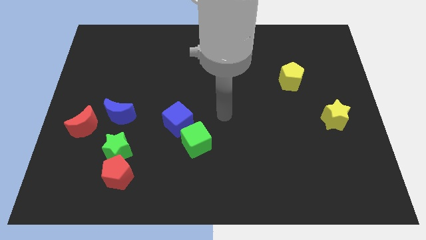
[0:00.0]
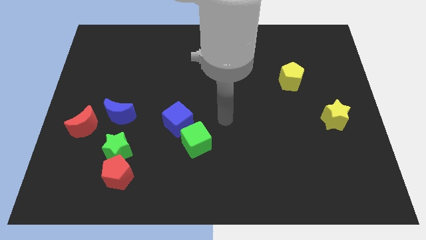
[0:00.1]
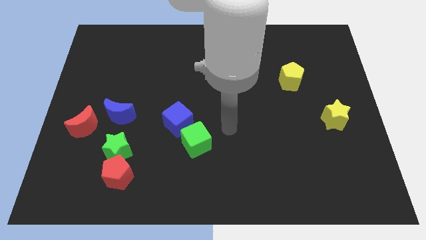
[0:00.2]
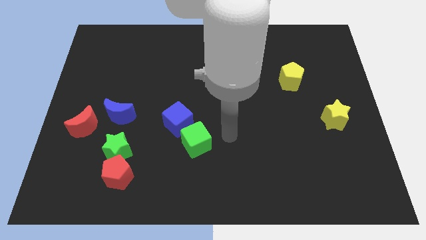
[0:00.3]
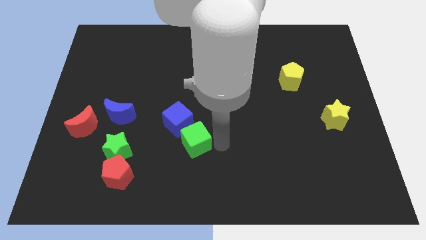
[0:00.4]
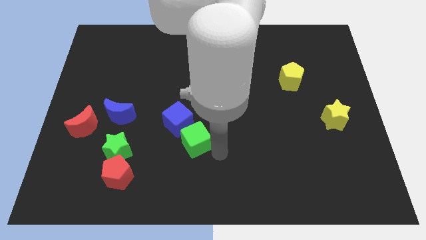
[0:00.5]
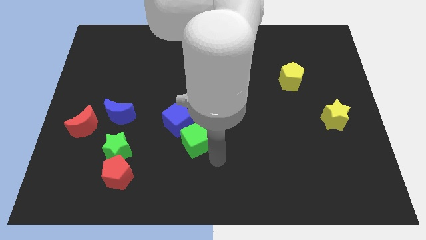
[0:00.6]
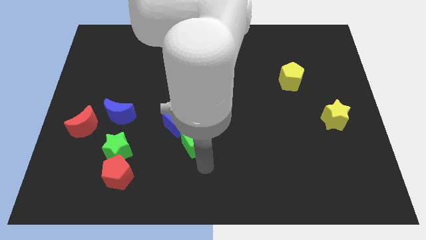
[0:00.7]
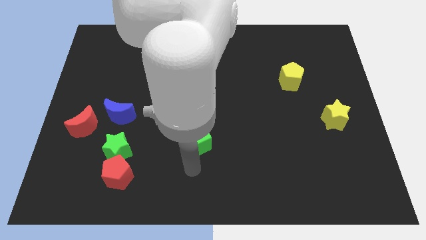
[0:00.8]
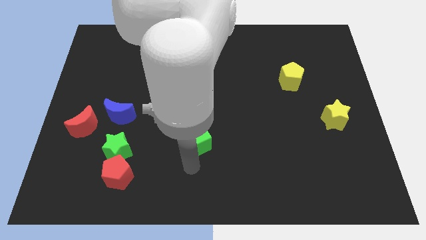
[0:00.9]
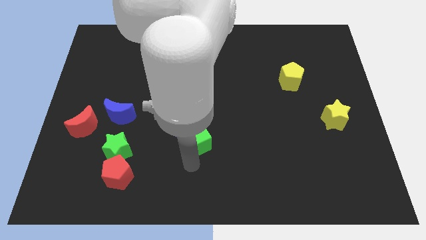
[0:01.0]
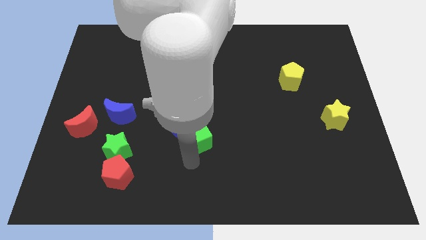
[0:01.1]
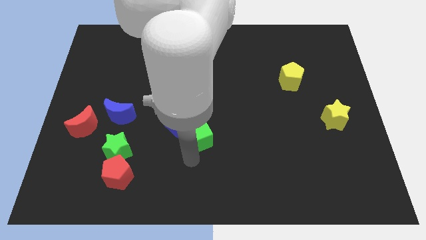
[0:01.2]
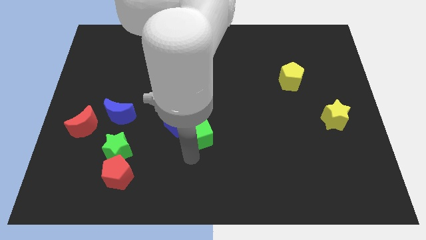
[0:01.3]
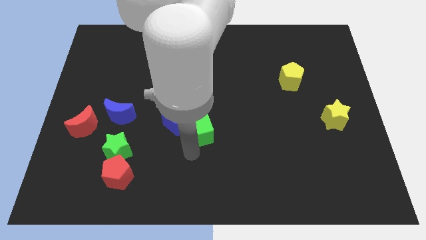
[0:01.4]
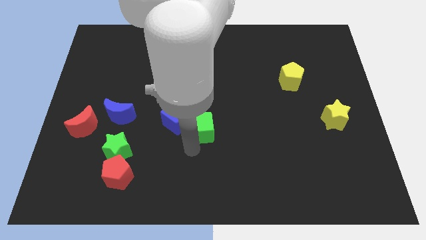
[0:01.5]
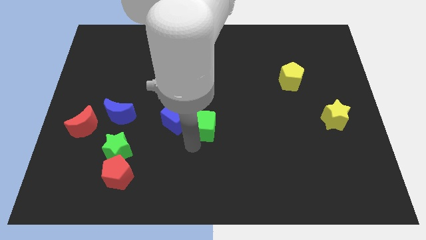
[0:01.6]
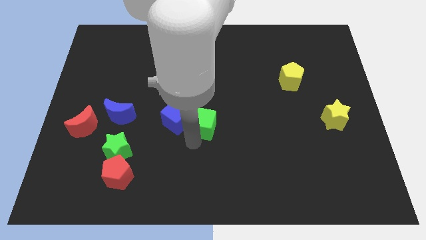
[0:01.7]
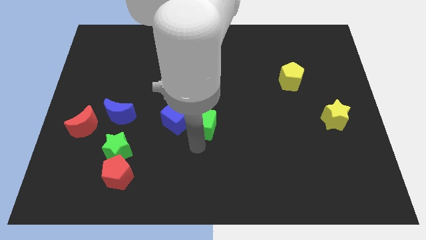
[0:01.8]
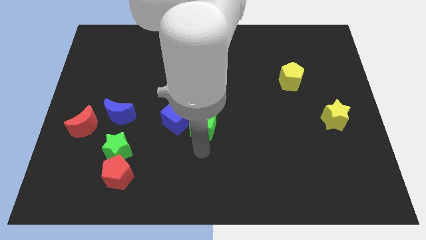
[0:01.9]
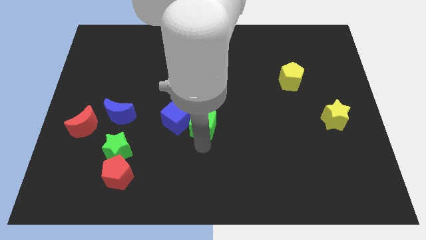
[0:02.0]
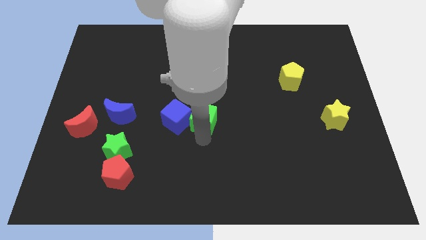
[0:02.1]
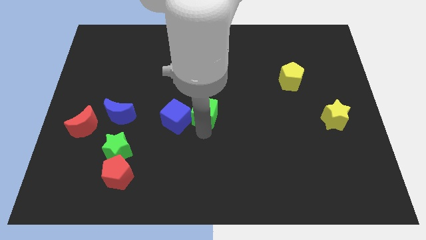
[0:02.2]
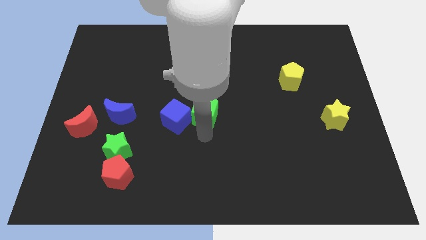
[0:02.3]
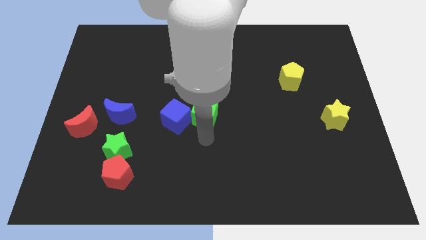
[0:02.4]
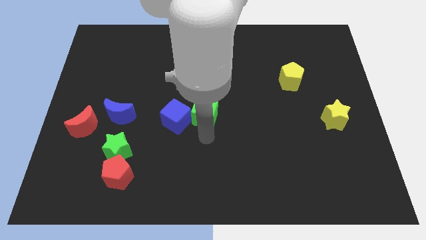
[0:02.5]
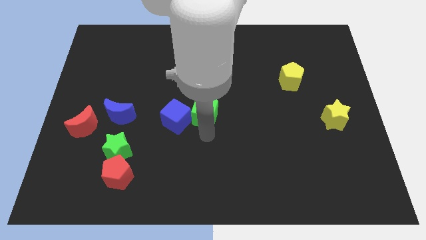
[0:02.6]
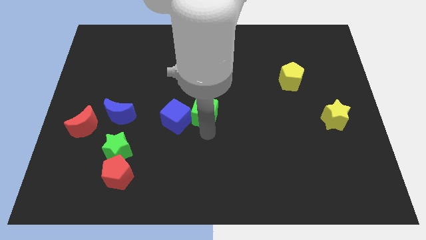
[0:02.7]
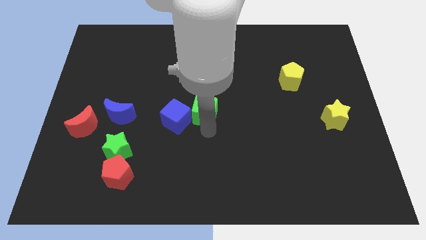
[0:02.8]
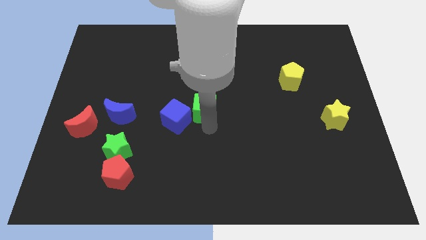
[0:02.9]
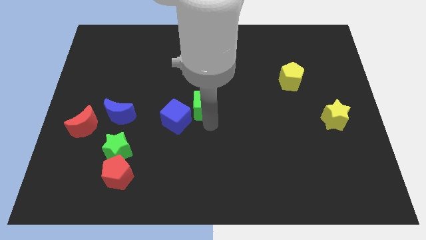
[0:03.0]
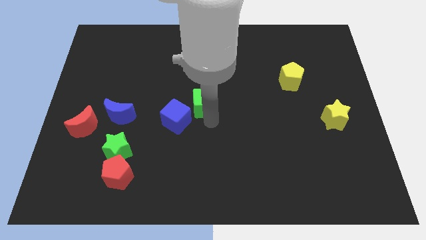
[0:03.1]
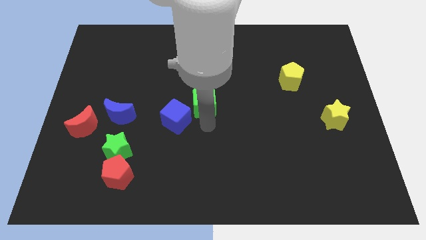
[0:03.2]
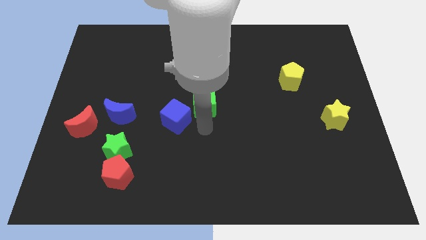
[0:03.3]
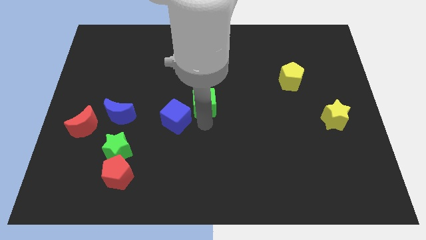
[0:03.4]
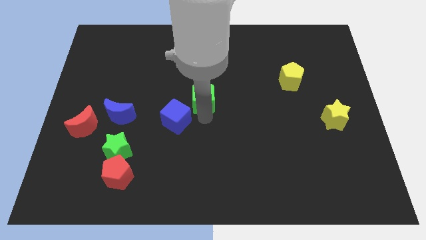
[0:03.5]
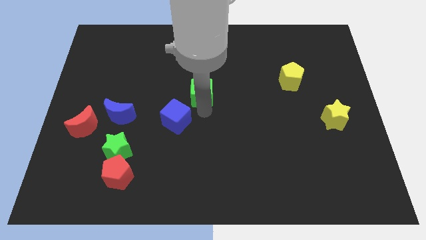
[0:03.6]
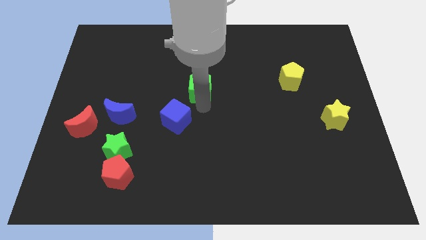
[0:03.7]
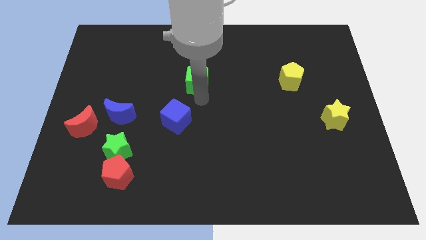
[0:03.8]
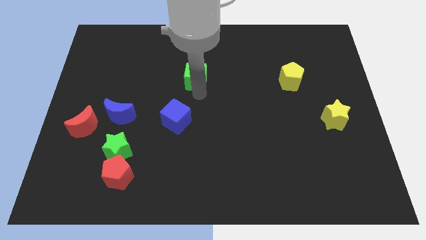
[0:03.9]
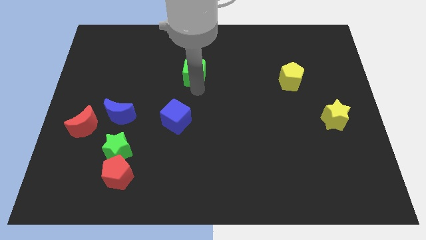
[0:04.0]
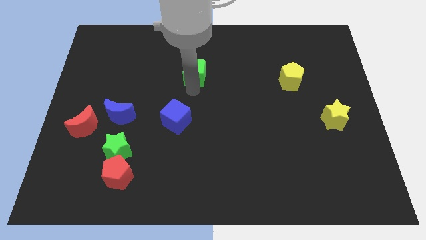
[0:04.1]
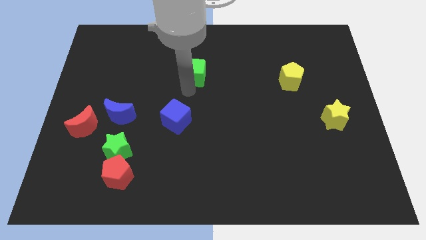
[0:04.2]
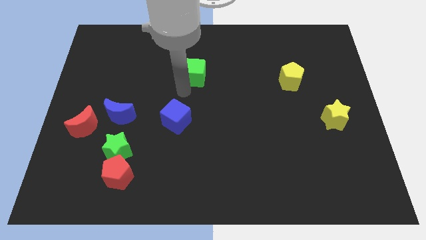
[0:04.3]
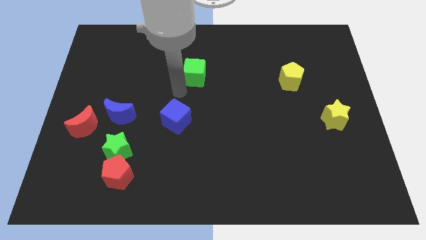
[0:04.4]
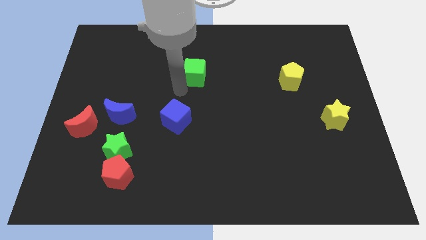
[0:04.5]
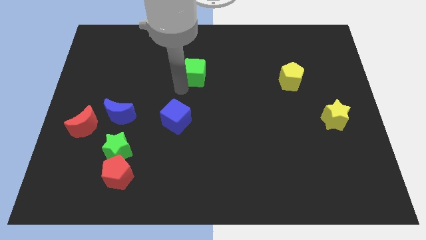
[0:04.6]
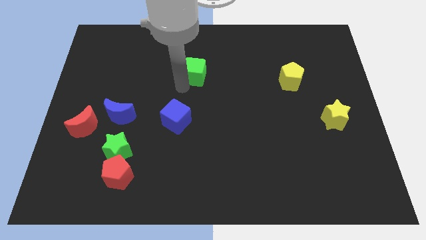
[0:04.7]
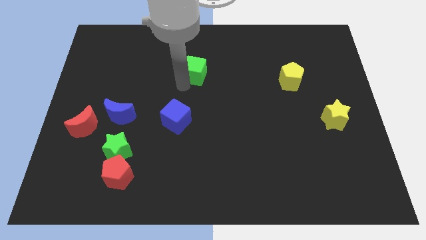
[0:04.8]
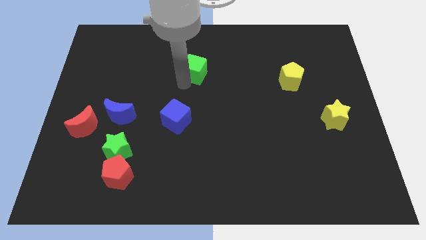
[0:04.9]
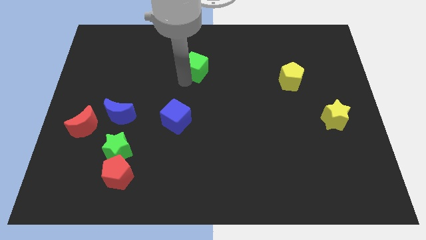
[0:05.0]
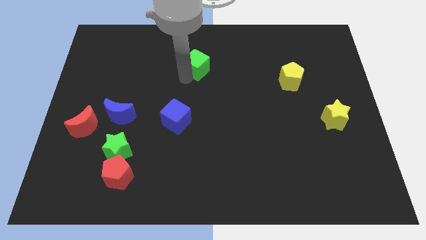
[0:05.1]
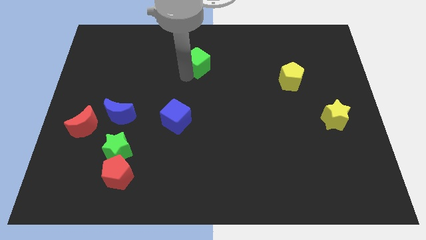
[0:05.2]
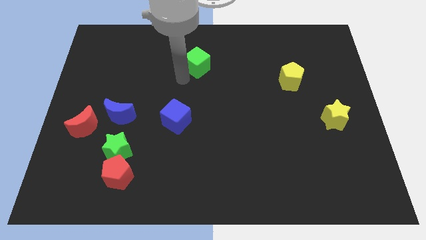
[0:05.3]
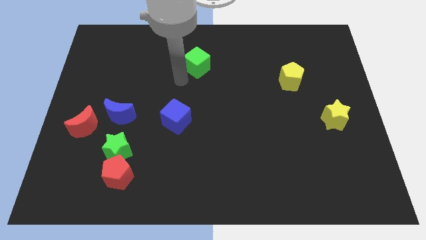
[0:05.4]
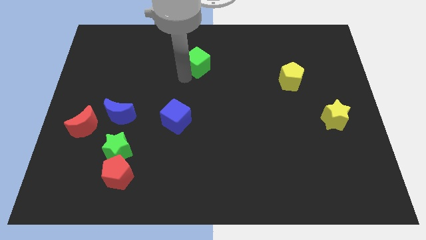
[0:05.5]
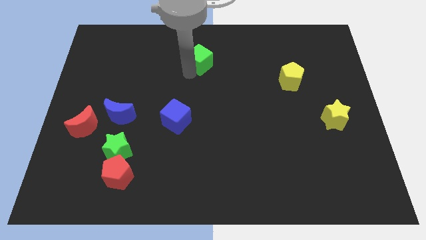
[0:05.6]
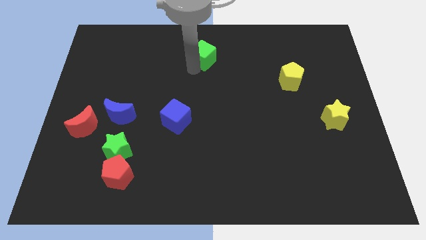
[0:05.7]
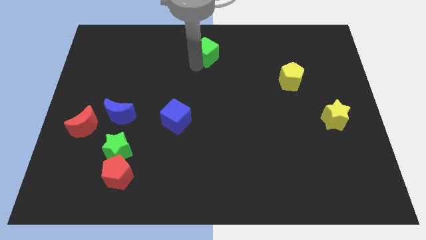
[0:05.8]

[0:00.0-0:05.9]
put the green cube to the top
